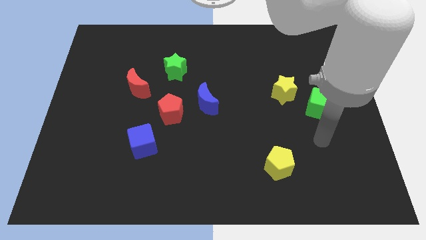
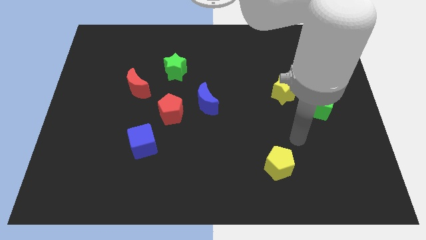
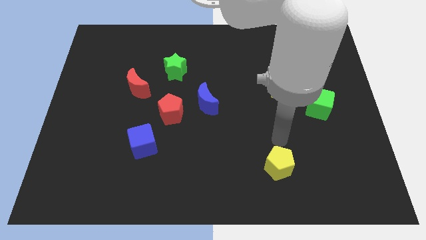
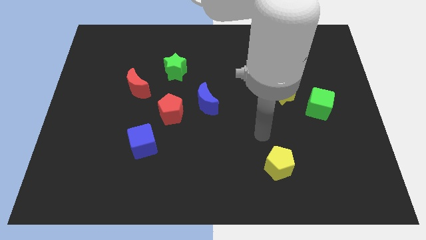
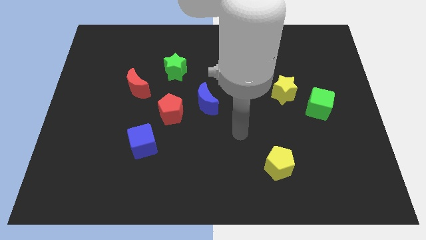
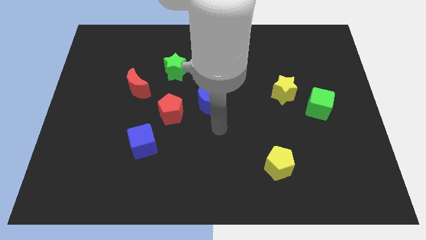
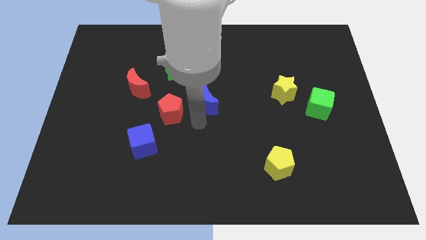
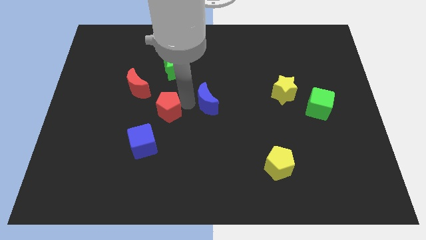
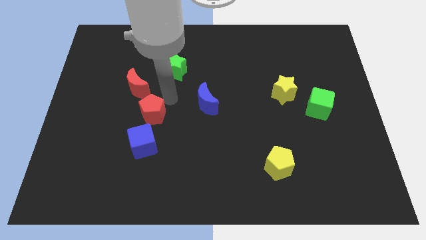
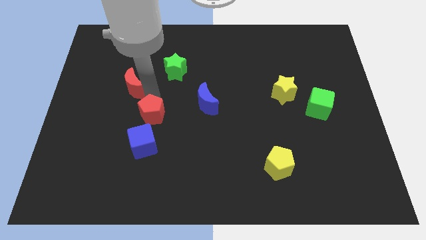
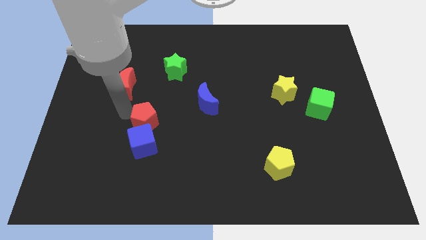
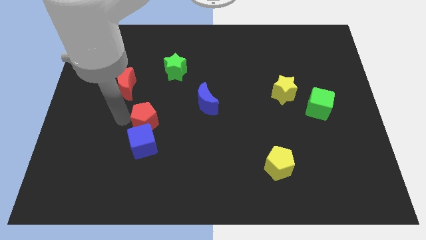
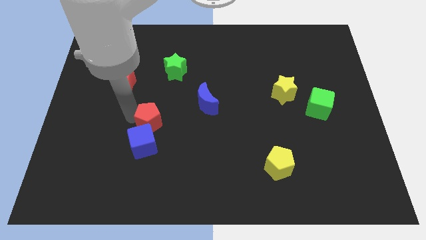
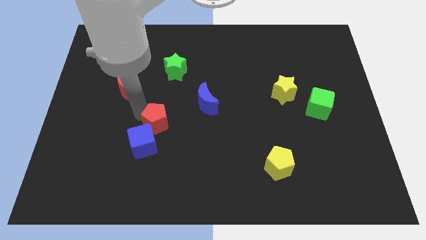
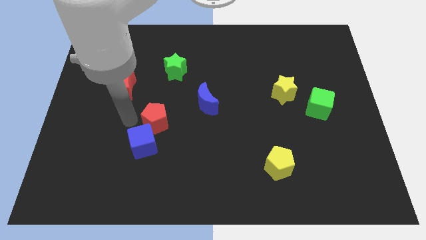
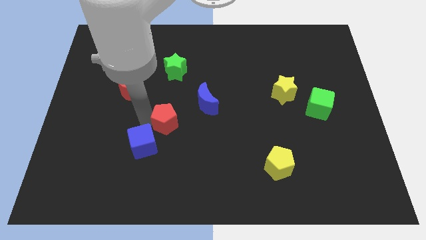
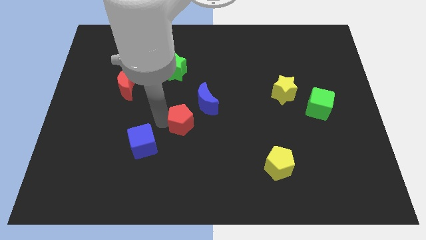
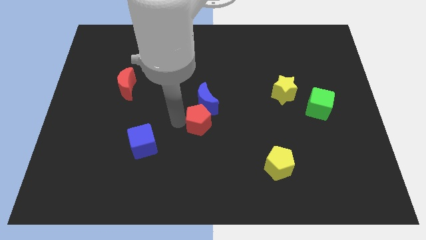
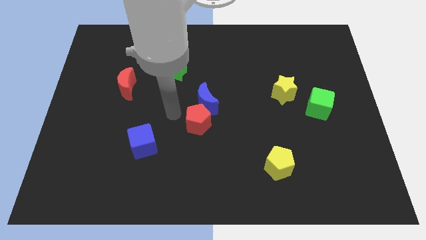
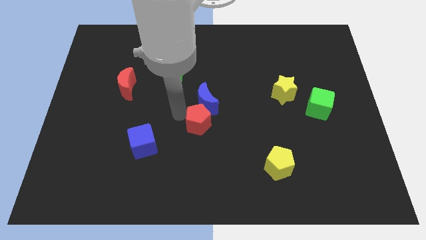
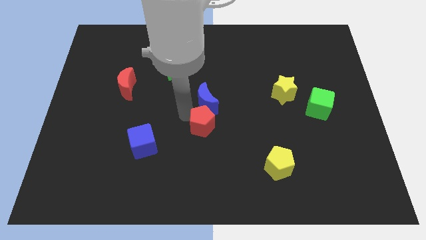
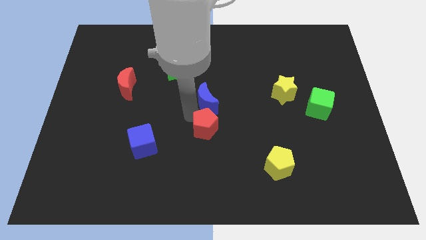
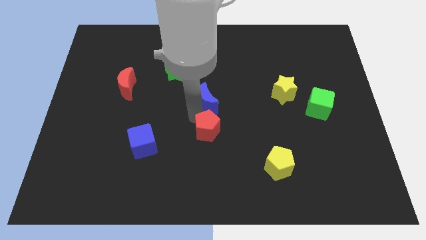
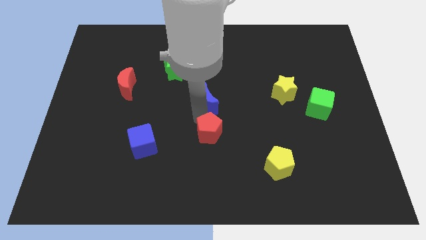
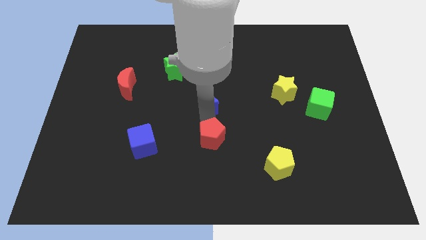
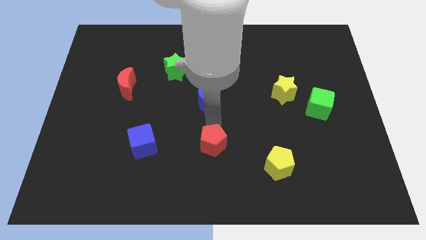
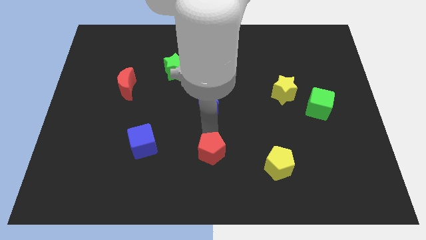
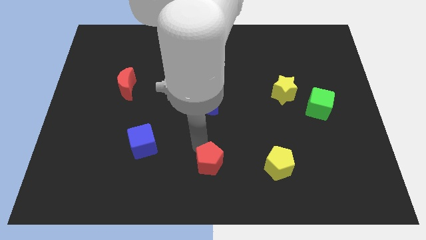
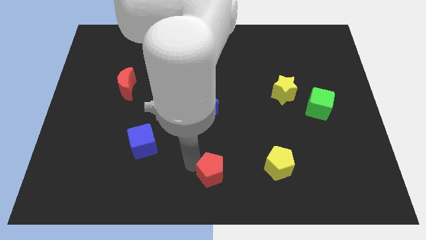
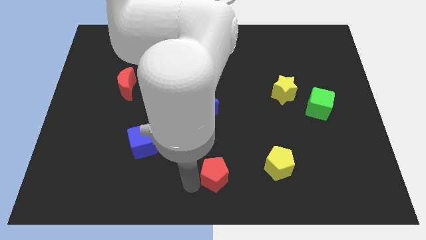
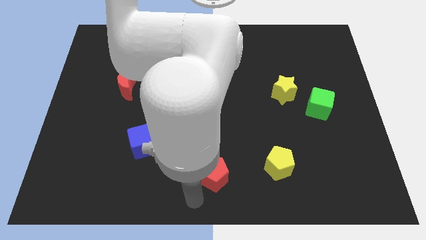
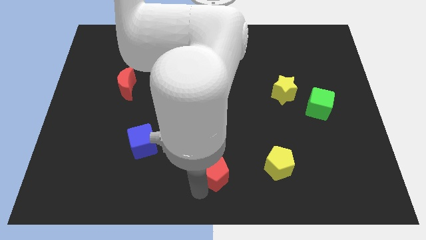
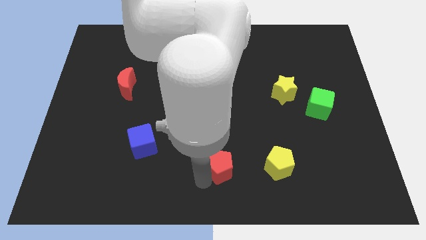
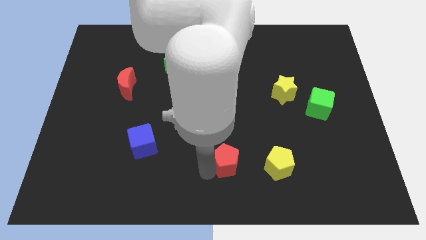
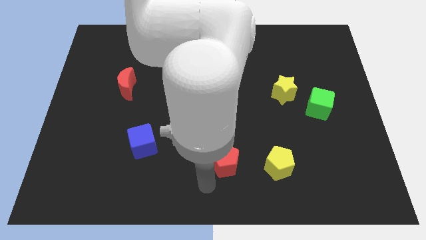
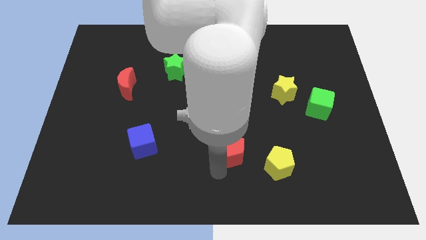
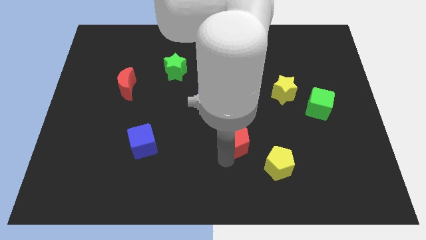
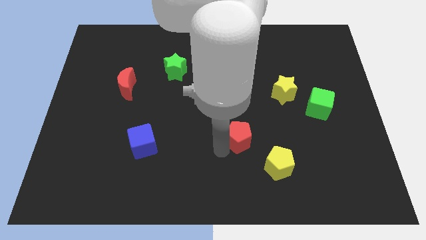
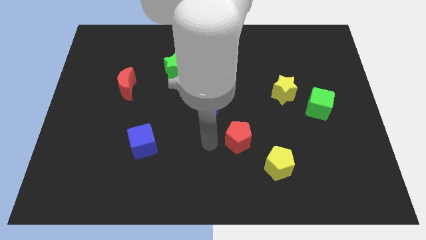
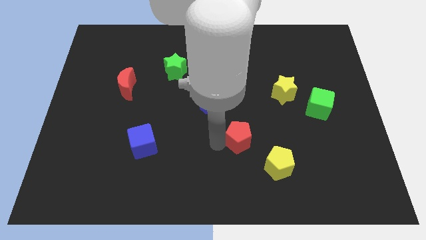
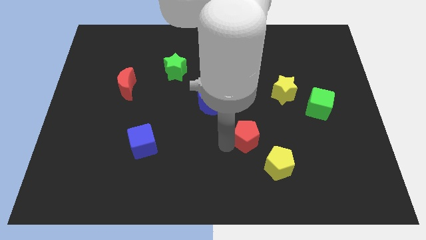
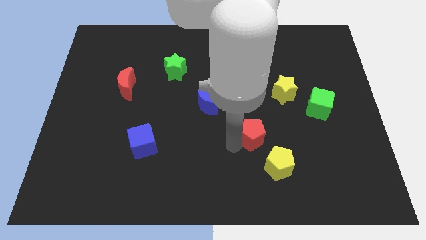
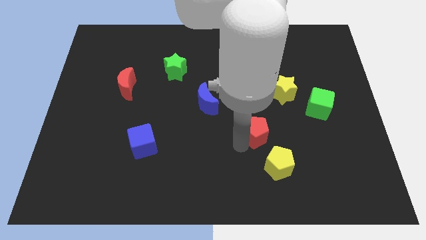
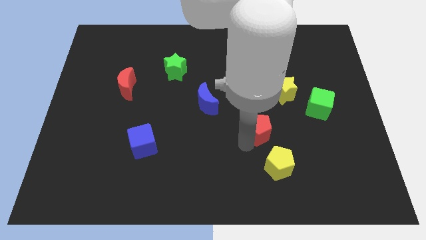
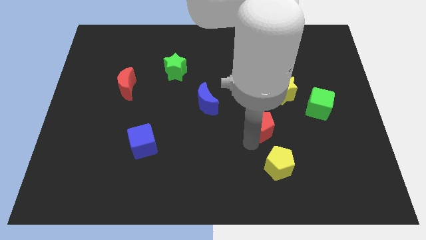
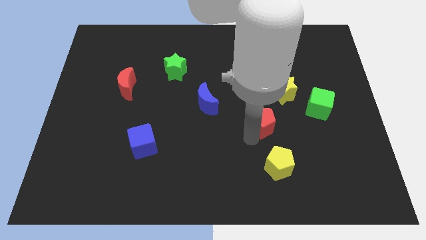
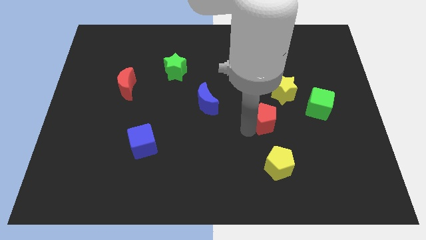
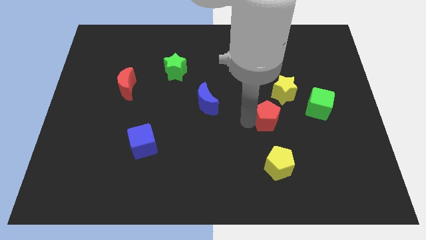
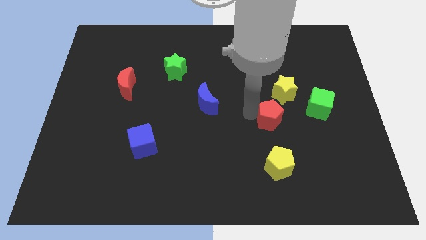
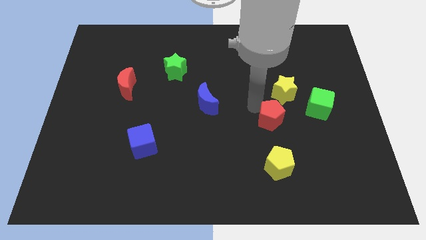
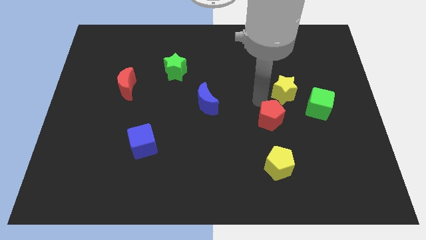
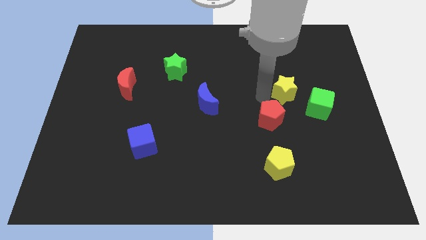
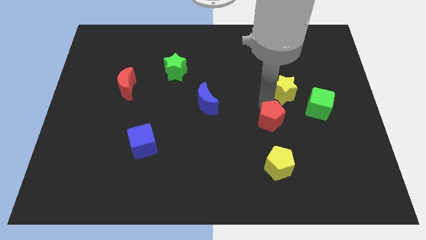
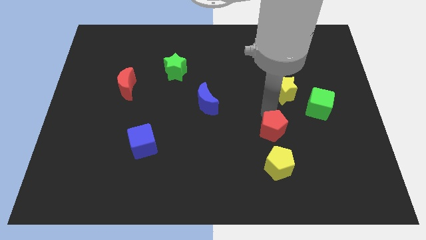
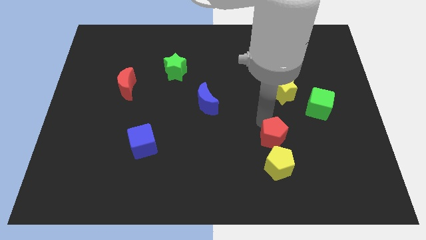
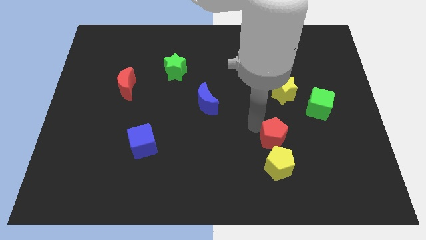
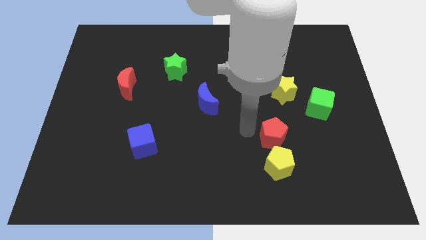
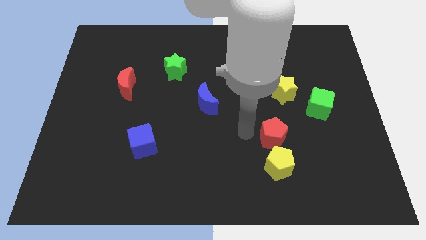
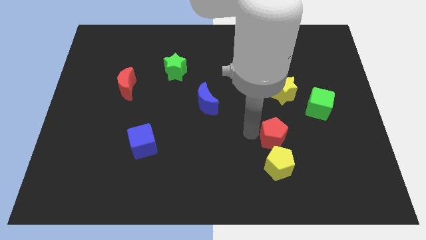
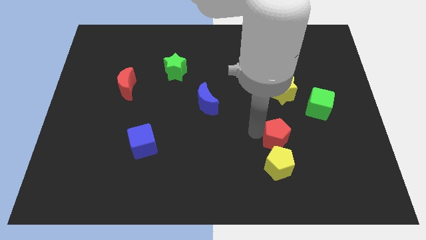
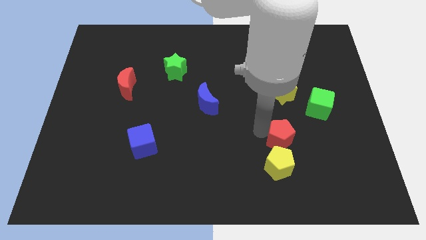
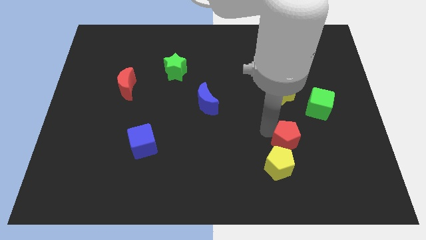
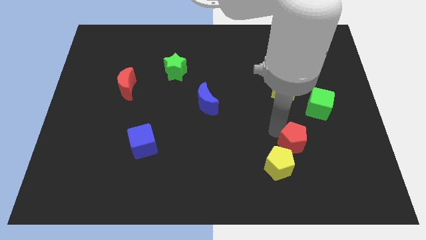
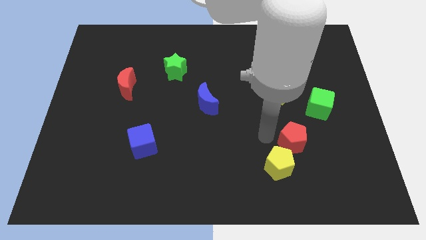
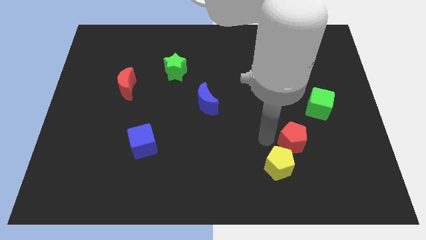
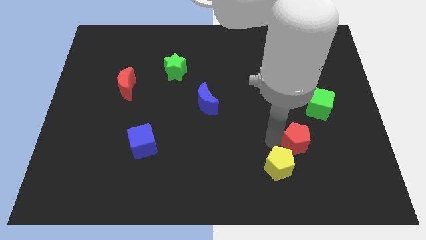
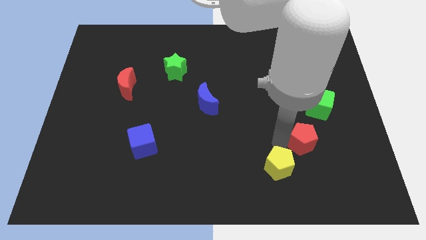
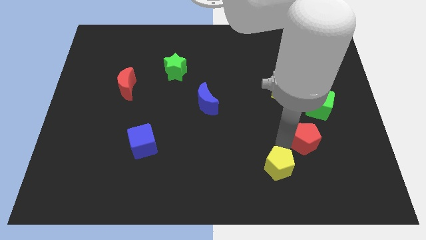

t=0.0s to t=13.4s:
move the red pentagon below the green cube

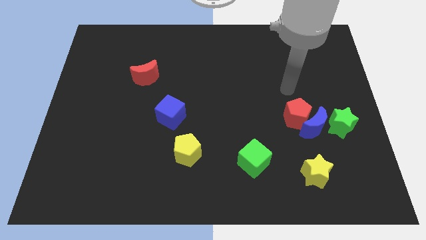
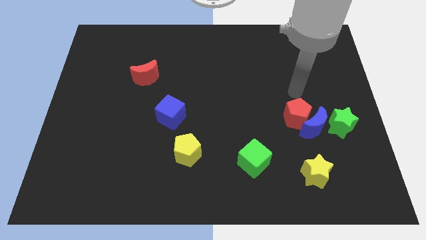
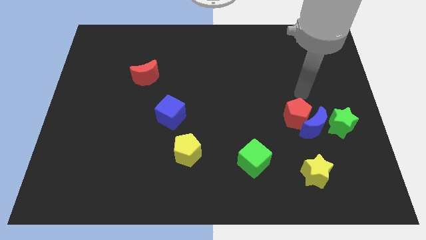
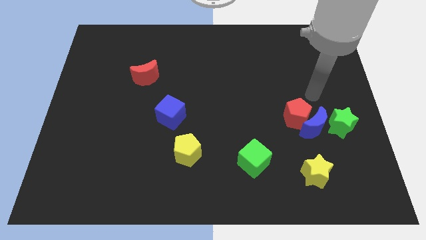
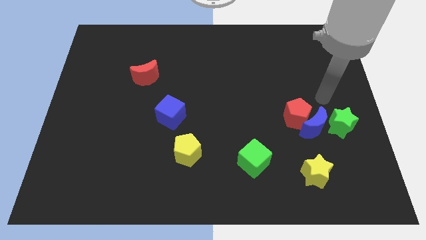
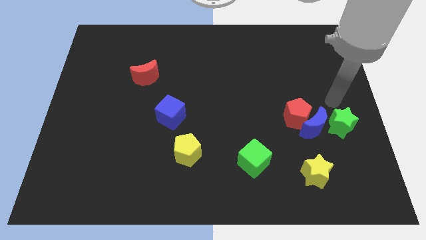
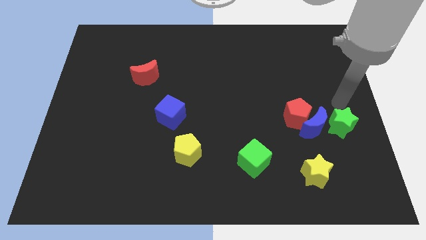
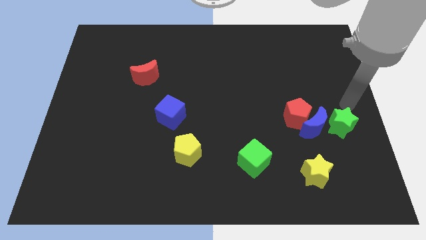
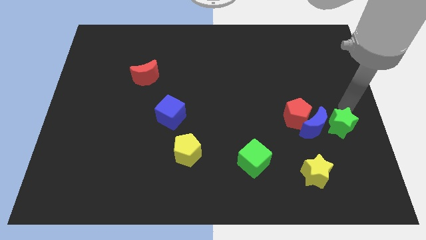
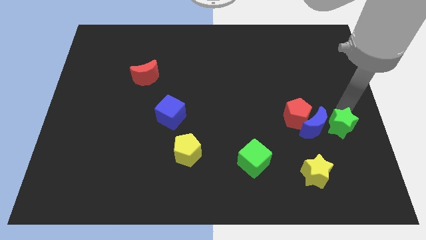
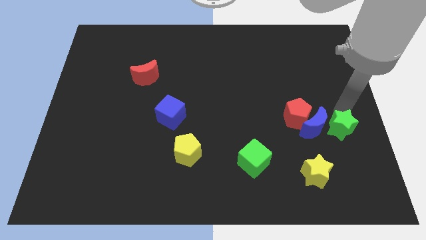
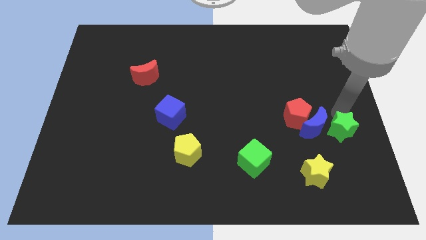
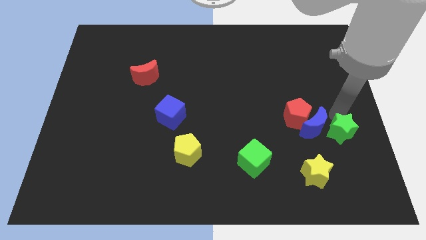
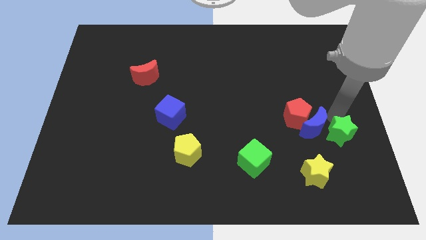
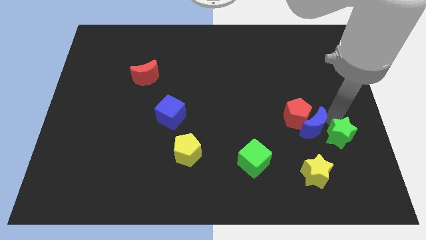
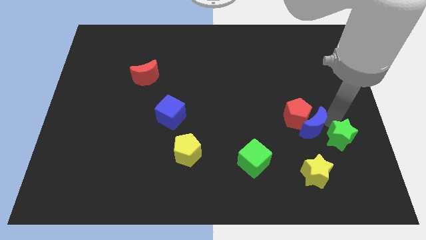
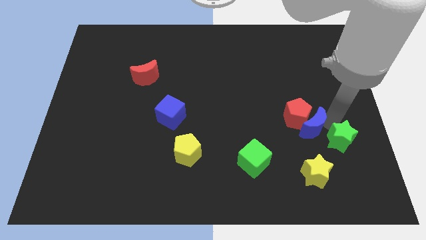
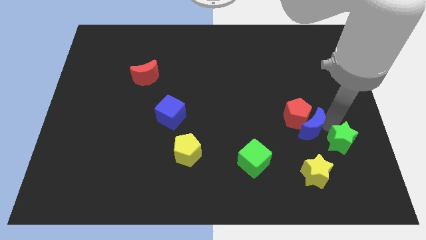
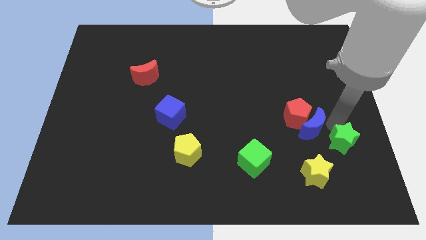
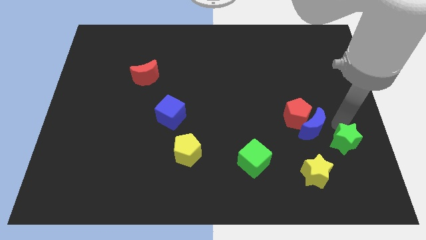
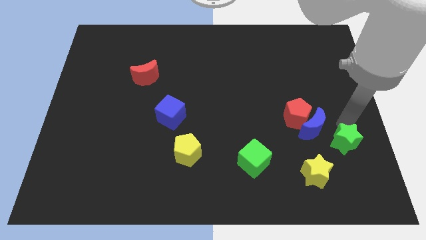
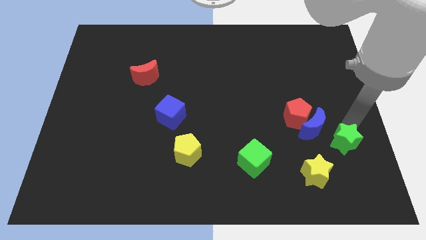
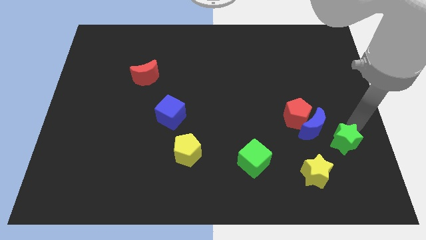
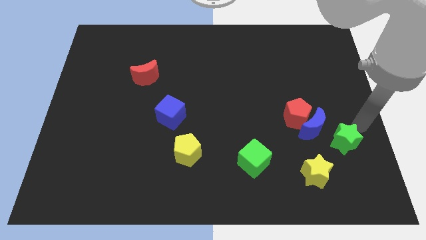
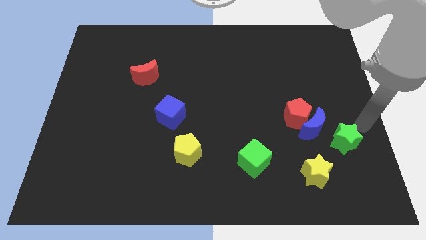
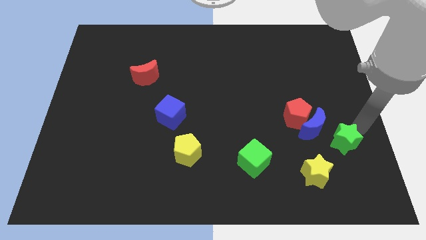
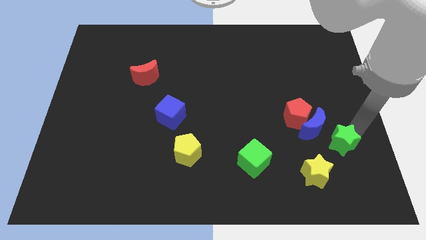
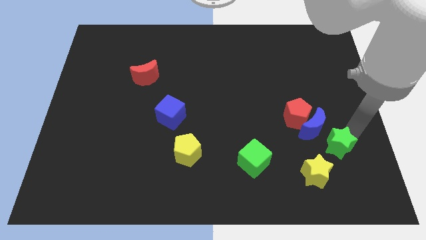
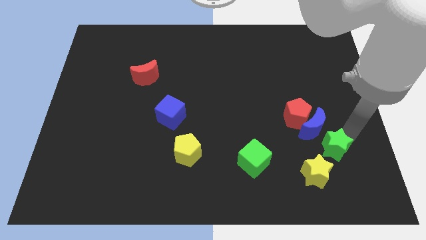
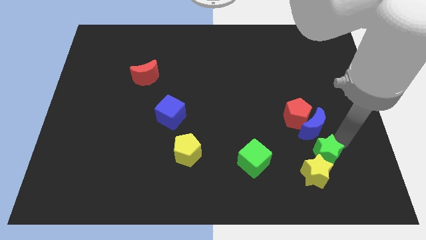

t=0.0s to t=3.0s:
slide the green star to the right of the green cube
